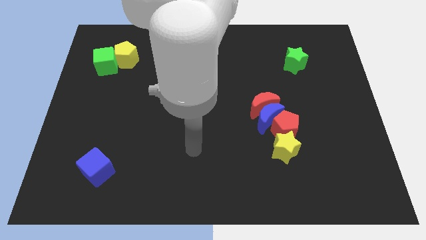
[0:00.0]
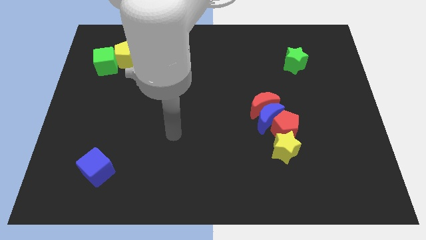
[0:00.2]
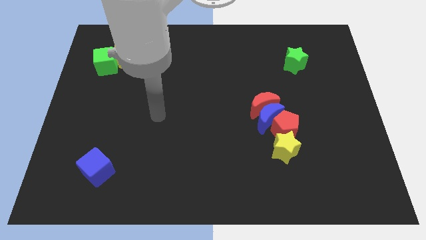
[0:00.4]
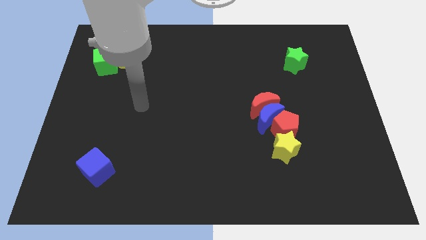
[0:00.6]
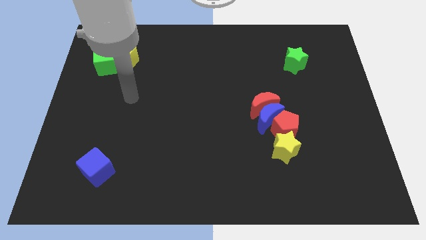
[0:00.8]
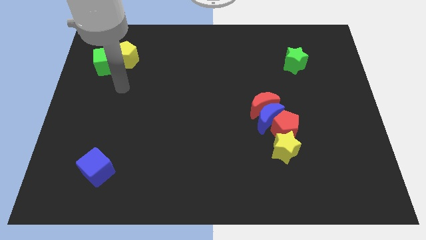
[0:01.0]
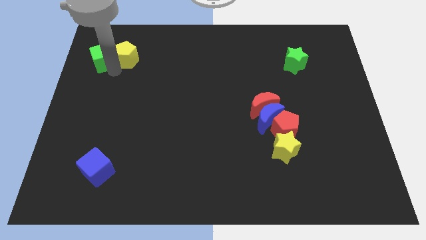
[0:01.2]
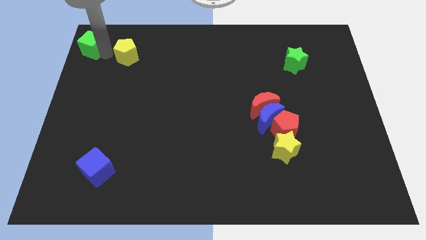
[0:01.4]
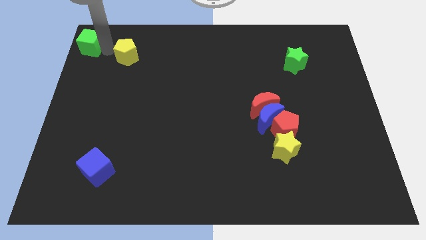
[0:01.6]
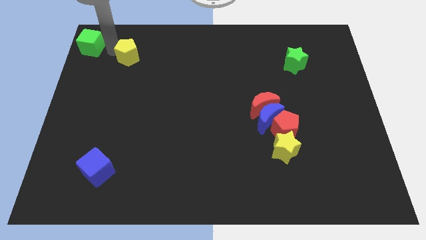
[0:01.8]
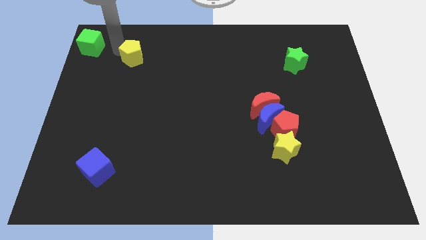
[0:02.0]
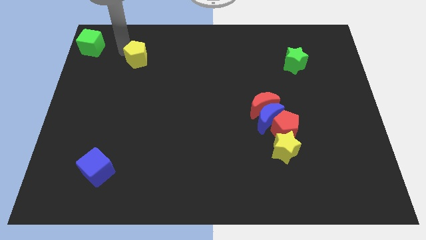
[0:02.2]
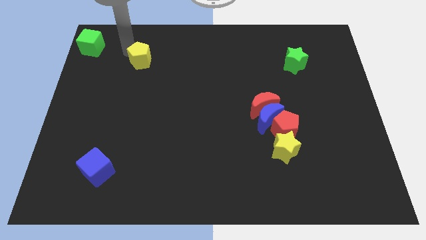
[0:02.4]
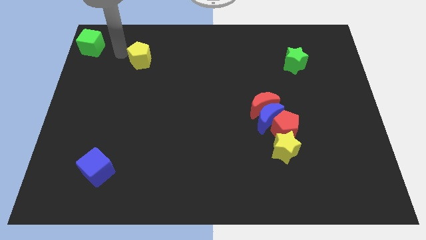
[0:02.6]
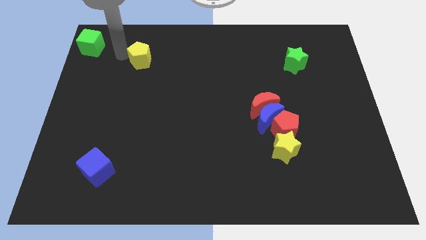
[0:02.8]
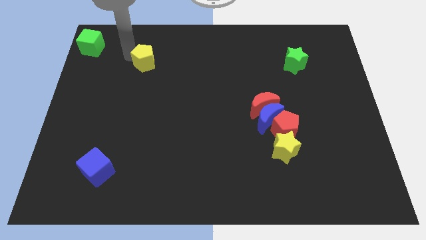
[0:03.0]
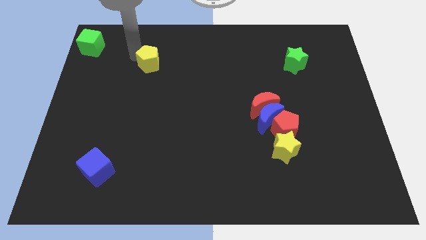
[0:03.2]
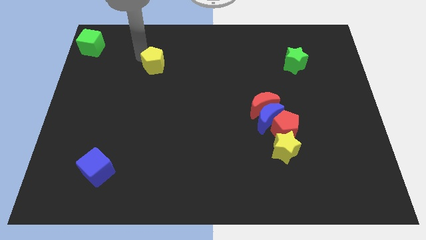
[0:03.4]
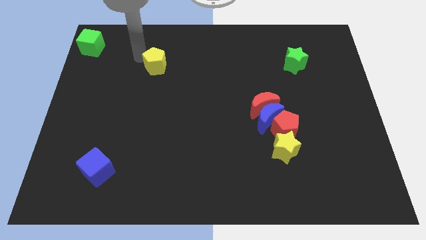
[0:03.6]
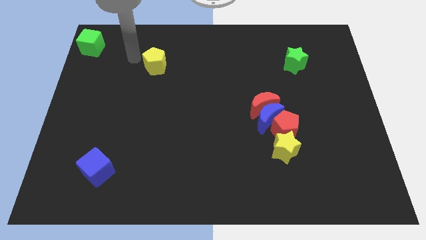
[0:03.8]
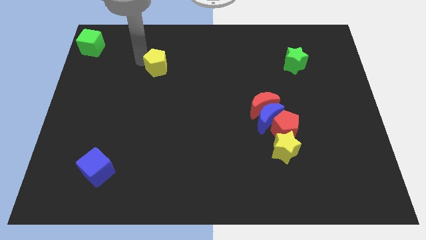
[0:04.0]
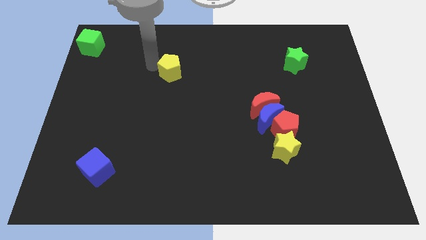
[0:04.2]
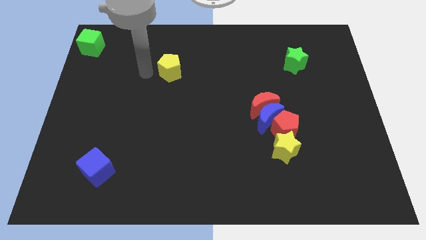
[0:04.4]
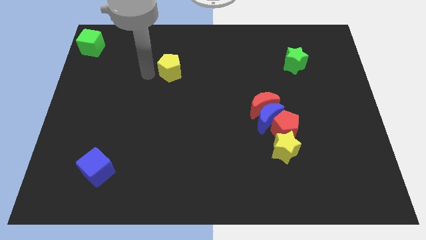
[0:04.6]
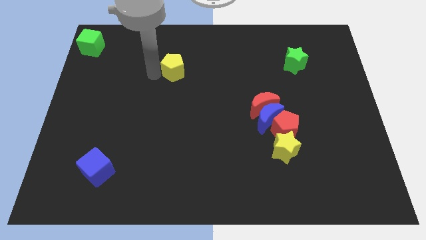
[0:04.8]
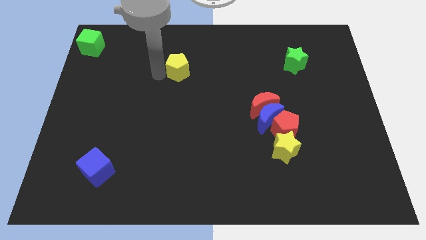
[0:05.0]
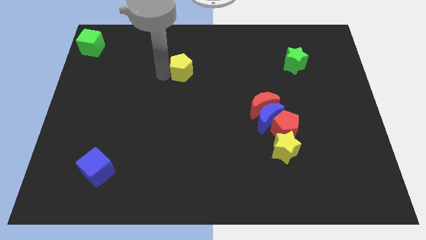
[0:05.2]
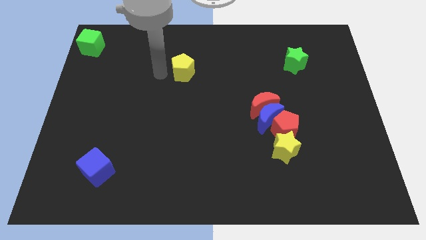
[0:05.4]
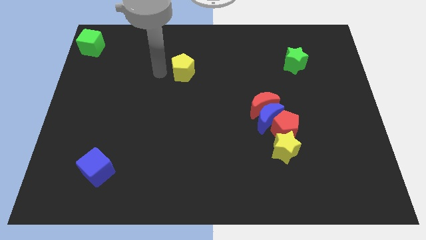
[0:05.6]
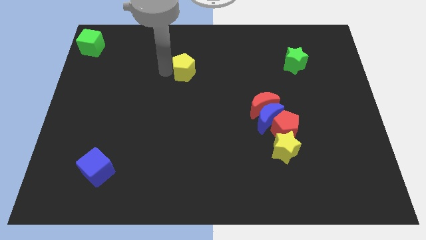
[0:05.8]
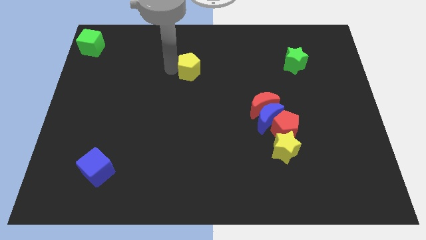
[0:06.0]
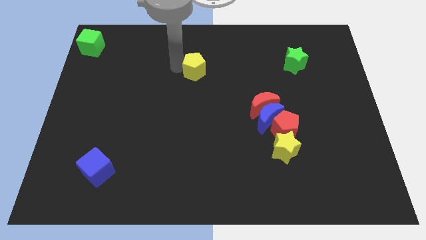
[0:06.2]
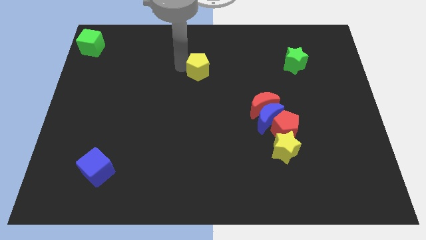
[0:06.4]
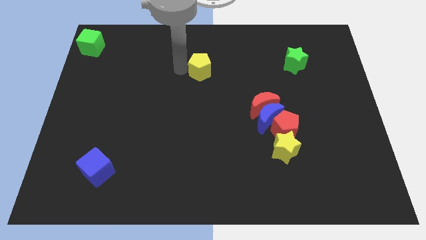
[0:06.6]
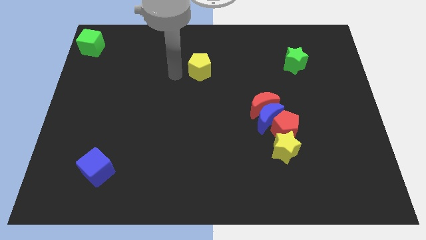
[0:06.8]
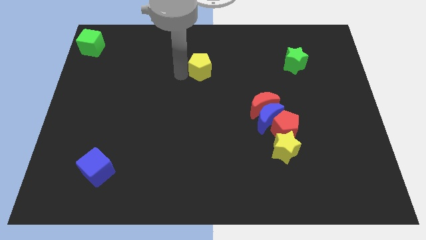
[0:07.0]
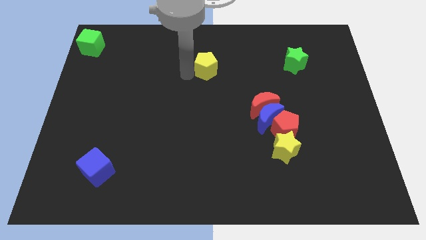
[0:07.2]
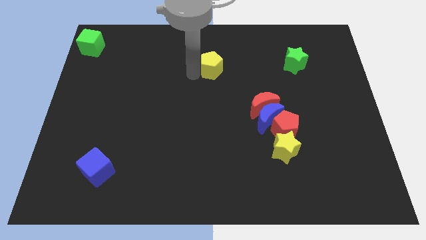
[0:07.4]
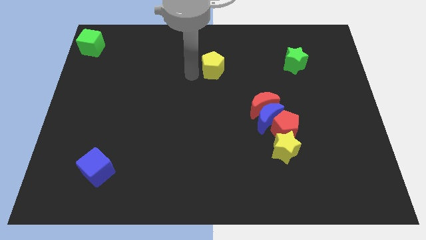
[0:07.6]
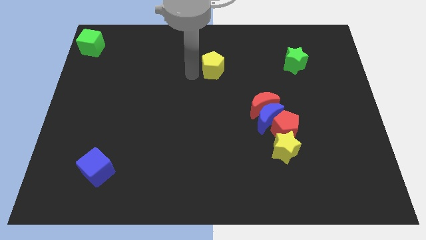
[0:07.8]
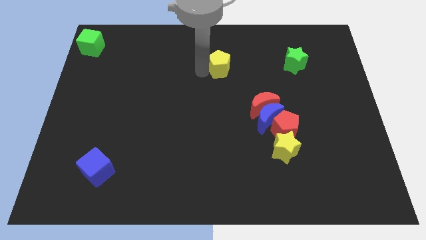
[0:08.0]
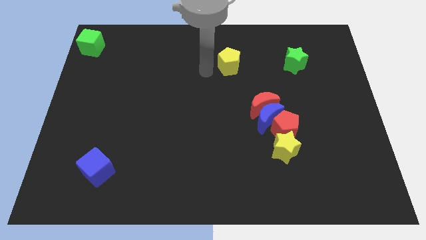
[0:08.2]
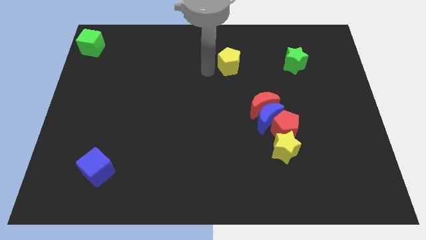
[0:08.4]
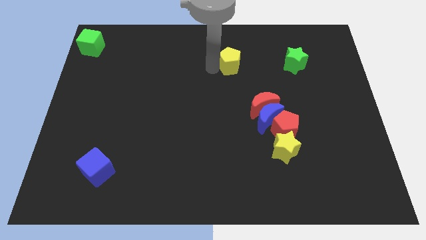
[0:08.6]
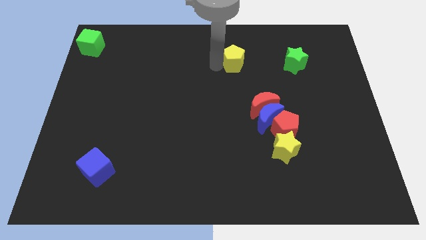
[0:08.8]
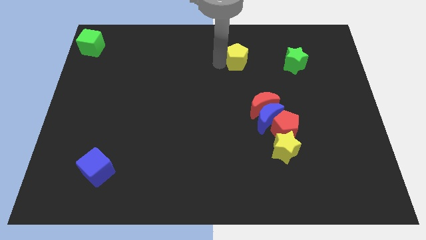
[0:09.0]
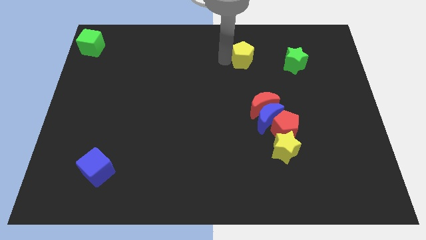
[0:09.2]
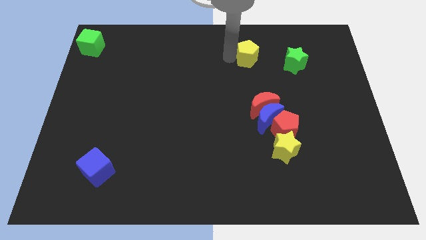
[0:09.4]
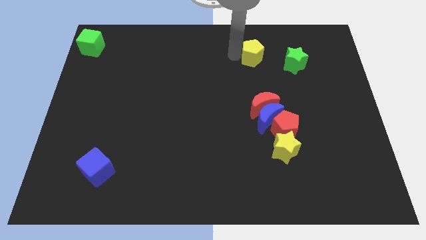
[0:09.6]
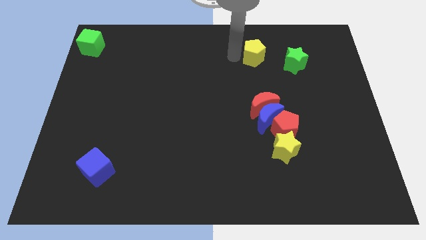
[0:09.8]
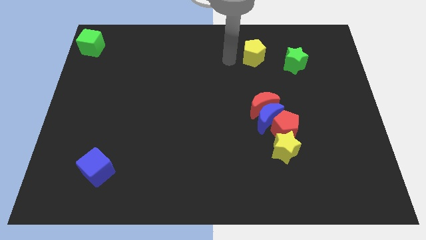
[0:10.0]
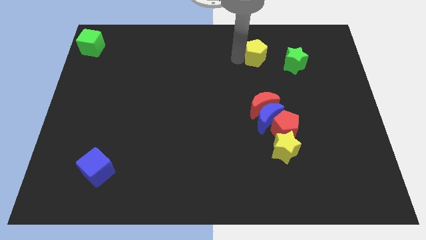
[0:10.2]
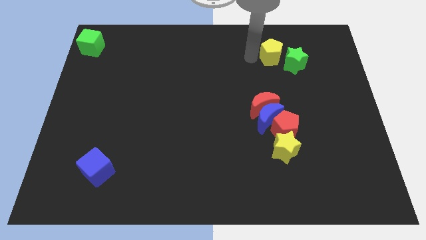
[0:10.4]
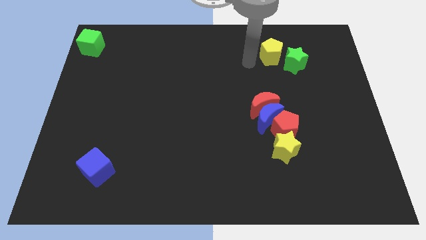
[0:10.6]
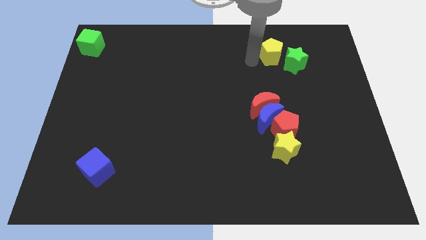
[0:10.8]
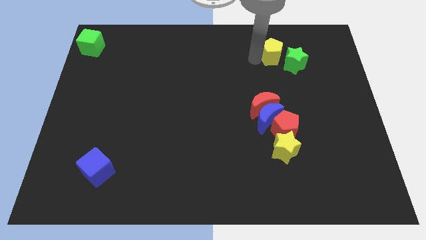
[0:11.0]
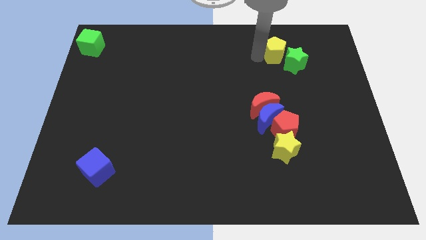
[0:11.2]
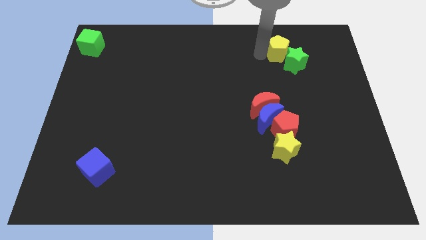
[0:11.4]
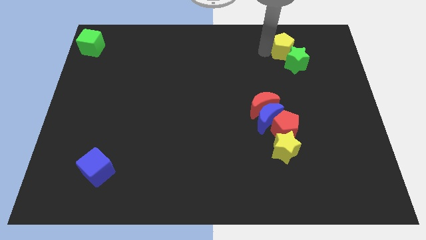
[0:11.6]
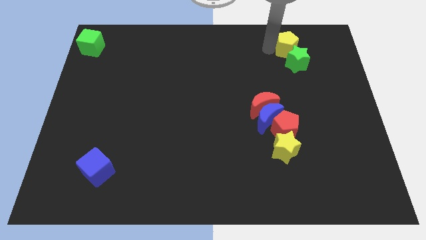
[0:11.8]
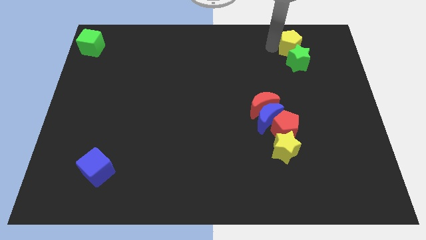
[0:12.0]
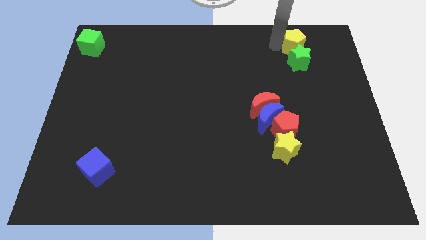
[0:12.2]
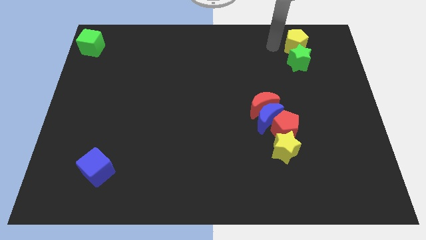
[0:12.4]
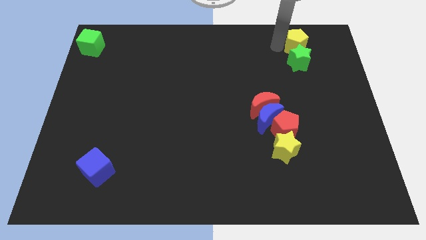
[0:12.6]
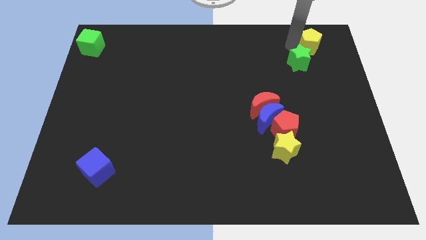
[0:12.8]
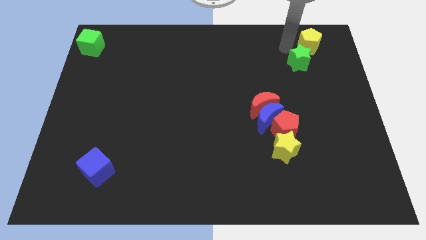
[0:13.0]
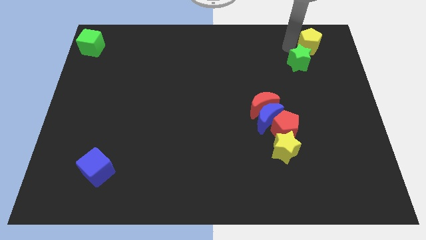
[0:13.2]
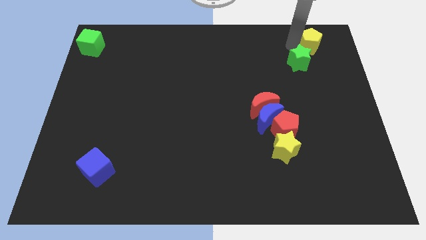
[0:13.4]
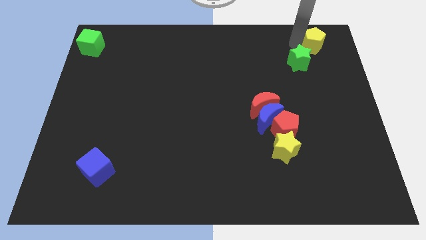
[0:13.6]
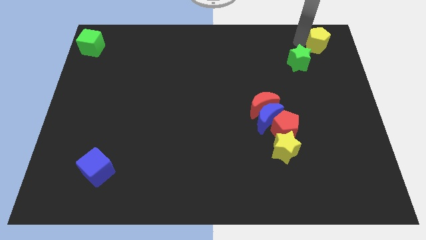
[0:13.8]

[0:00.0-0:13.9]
put the yellow pentagon to the top right
